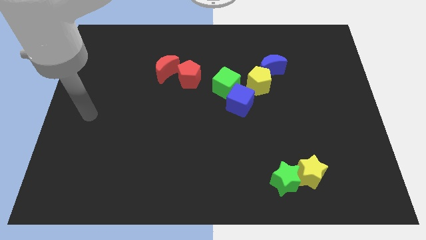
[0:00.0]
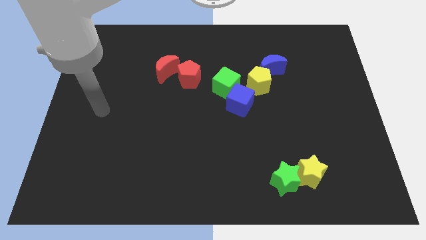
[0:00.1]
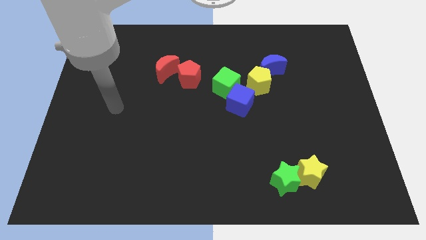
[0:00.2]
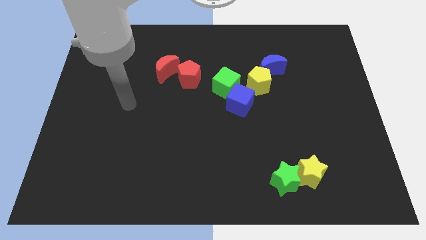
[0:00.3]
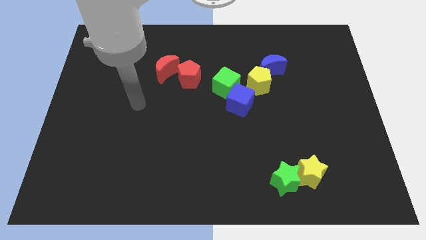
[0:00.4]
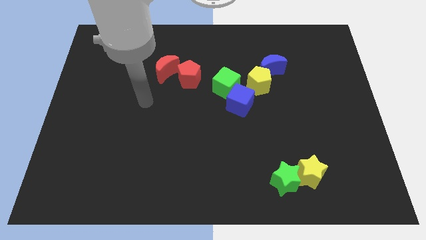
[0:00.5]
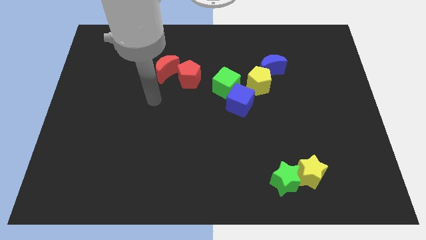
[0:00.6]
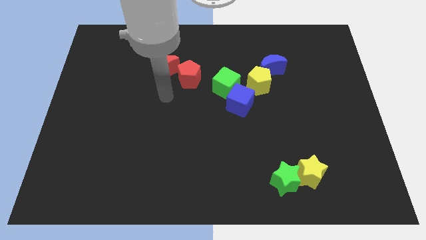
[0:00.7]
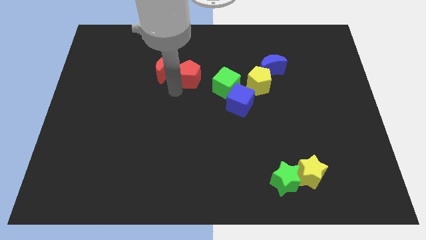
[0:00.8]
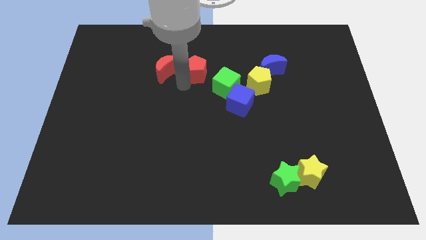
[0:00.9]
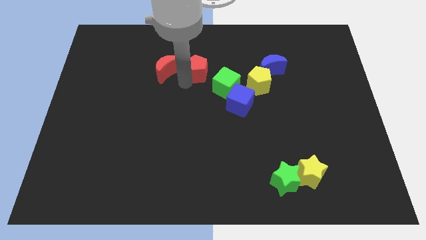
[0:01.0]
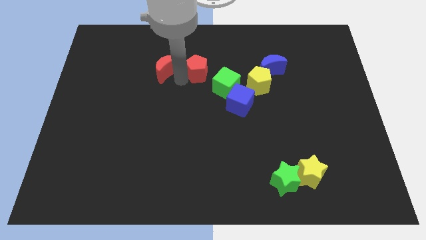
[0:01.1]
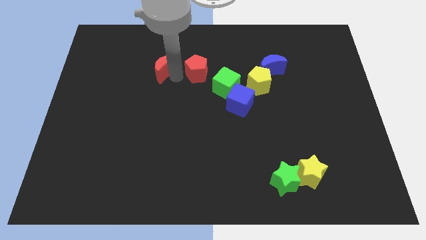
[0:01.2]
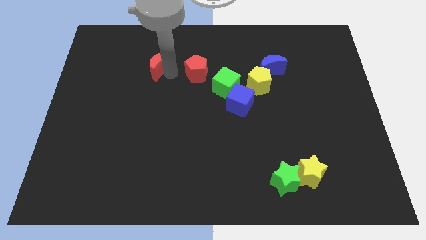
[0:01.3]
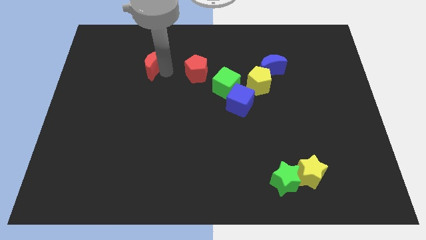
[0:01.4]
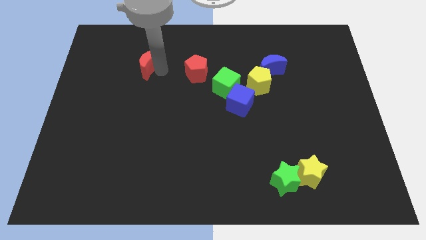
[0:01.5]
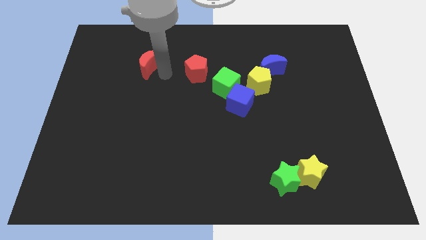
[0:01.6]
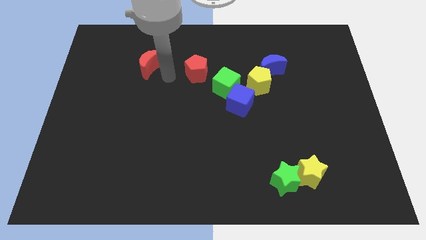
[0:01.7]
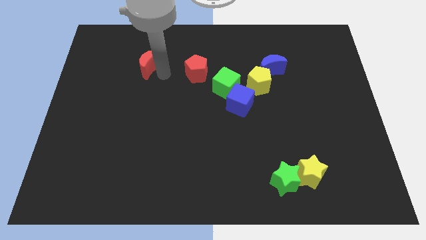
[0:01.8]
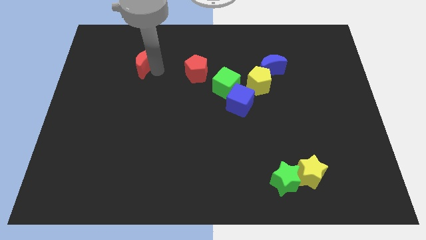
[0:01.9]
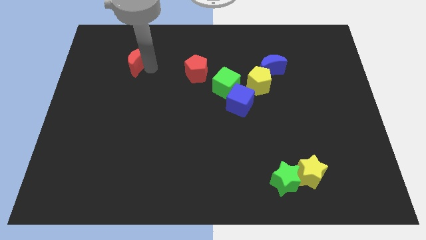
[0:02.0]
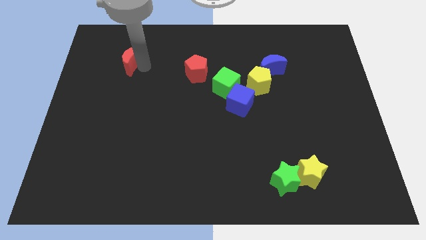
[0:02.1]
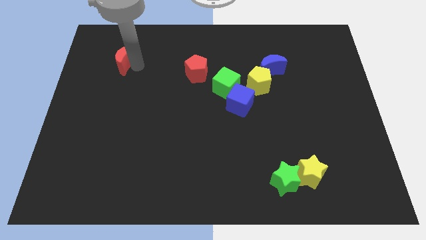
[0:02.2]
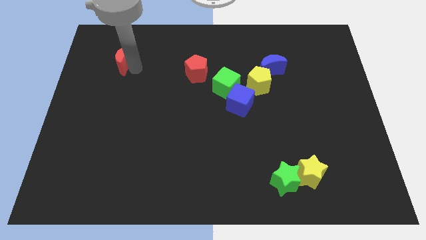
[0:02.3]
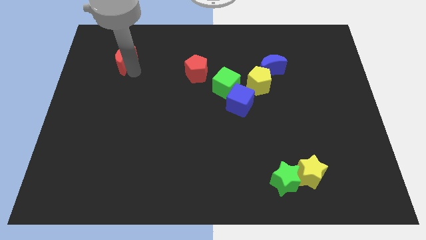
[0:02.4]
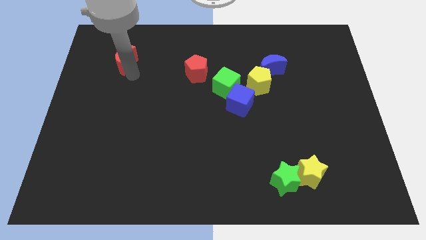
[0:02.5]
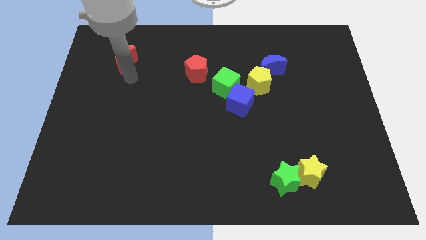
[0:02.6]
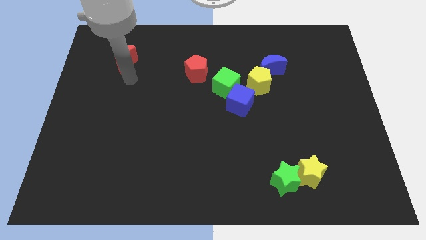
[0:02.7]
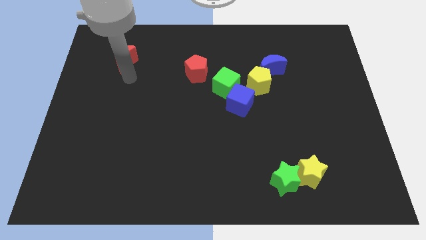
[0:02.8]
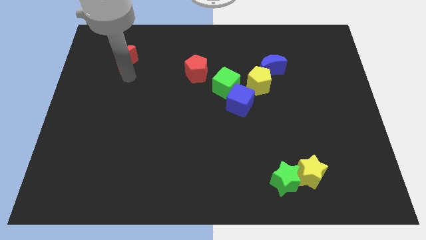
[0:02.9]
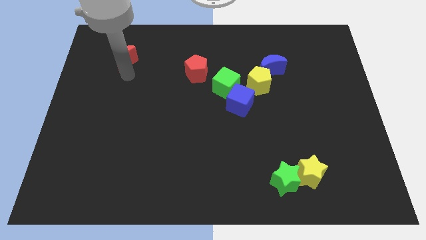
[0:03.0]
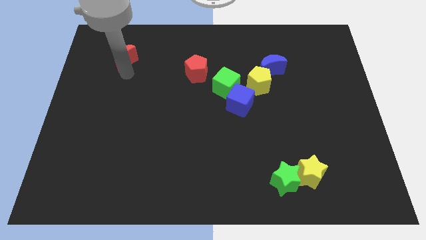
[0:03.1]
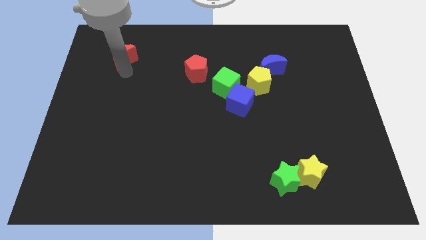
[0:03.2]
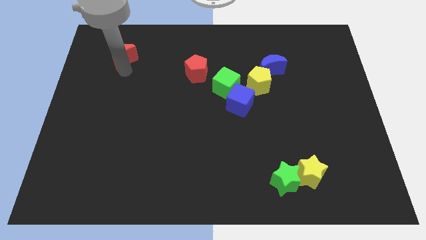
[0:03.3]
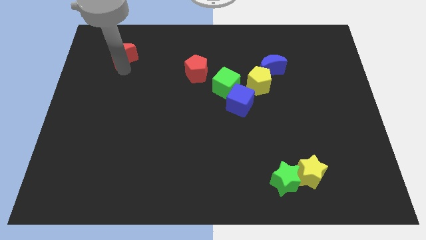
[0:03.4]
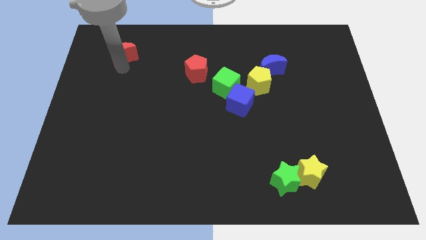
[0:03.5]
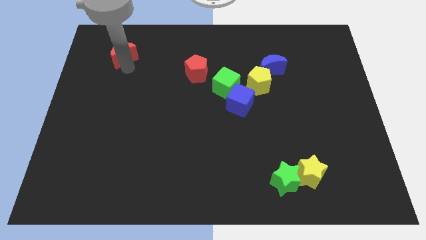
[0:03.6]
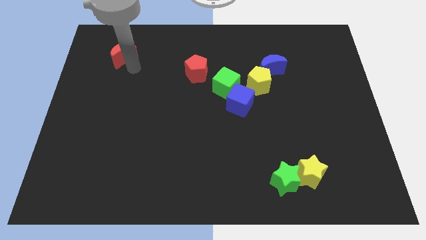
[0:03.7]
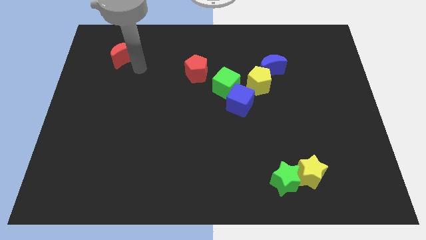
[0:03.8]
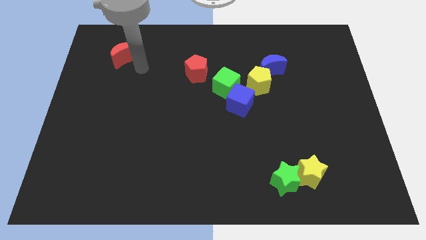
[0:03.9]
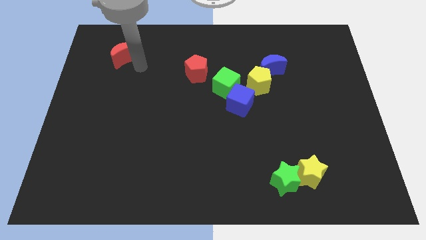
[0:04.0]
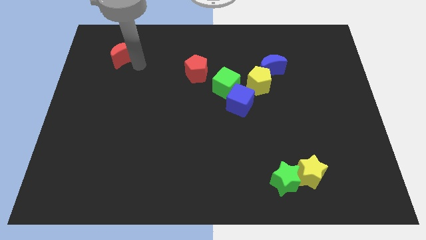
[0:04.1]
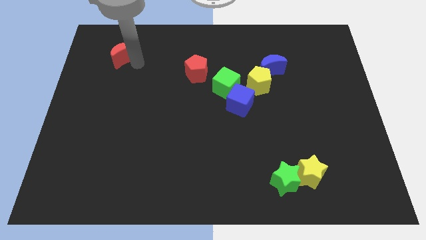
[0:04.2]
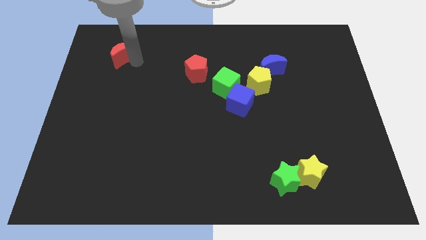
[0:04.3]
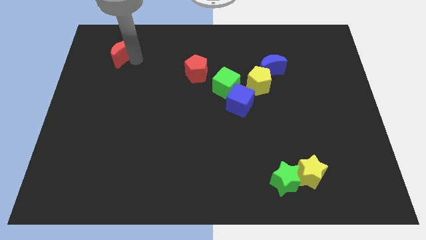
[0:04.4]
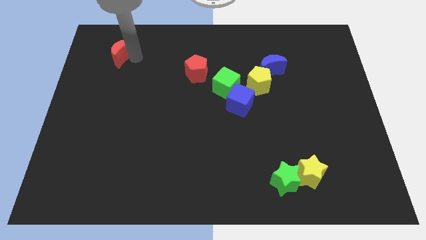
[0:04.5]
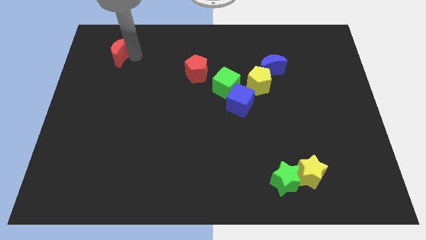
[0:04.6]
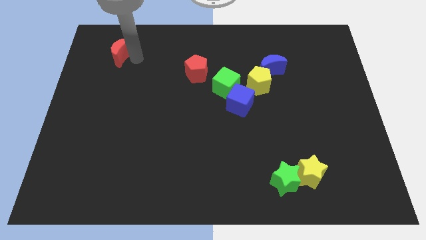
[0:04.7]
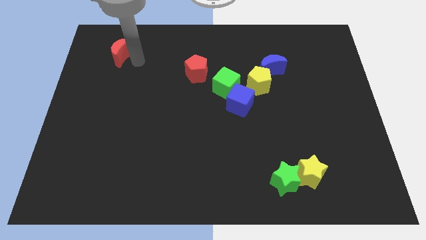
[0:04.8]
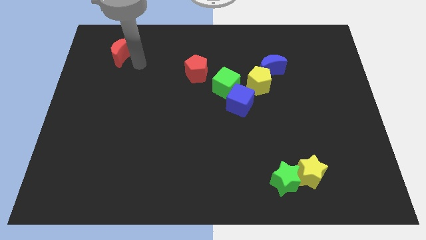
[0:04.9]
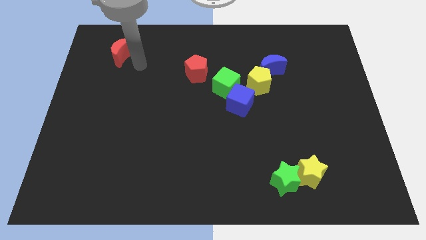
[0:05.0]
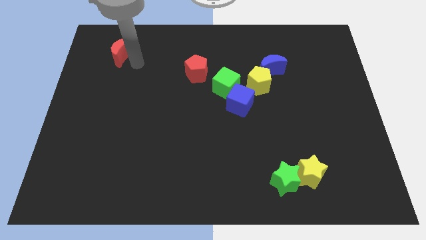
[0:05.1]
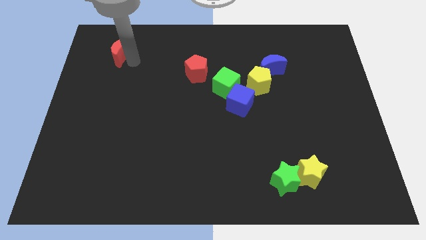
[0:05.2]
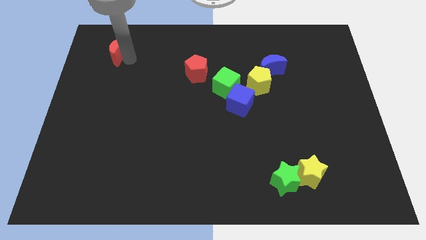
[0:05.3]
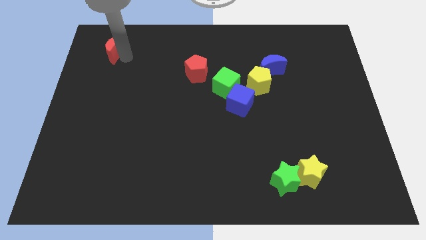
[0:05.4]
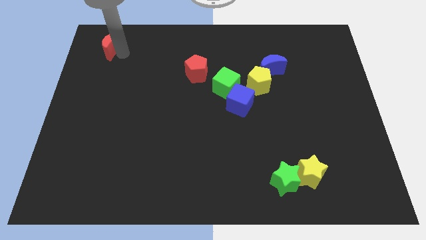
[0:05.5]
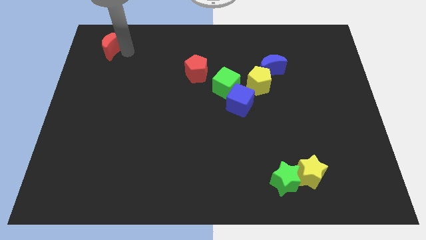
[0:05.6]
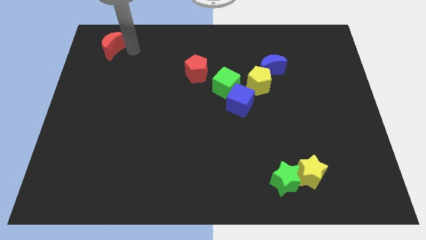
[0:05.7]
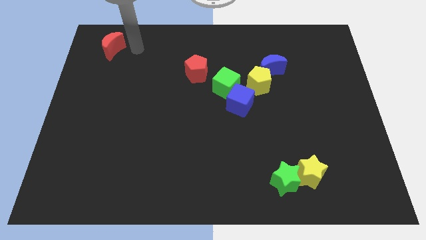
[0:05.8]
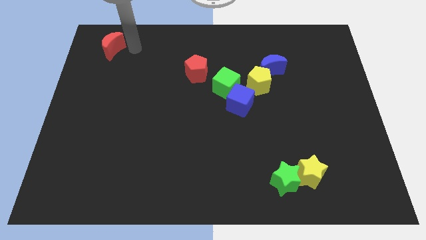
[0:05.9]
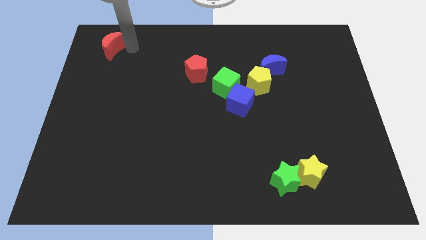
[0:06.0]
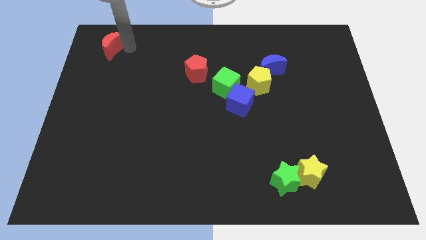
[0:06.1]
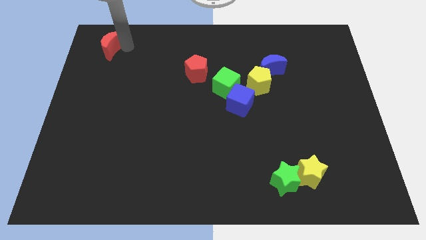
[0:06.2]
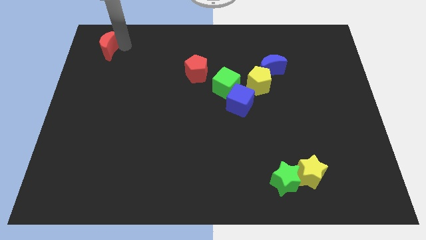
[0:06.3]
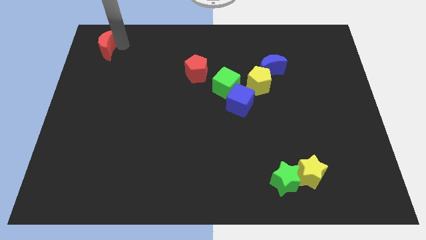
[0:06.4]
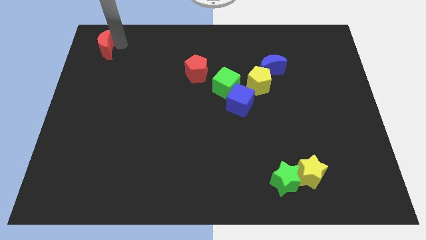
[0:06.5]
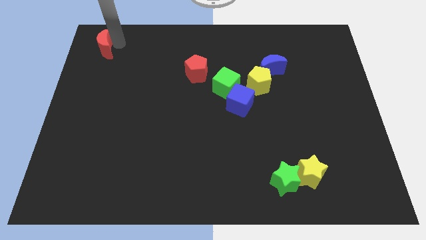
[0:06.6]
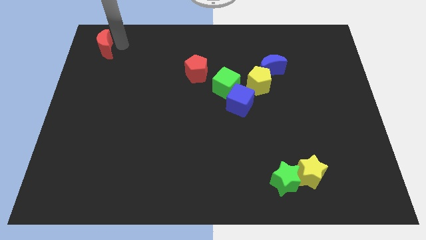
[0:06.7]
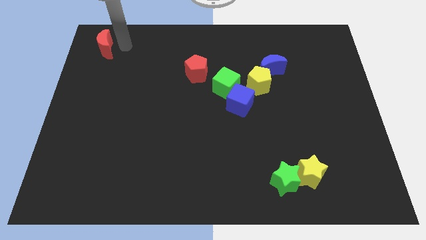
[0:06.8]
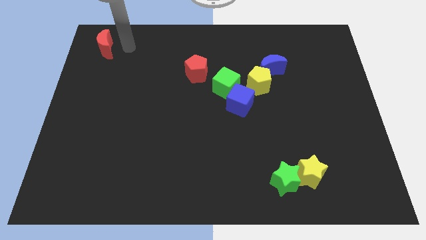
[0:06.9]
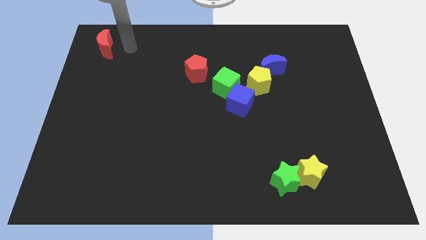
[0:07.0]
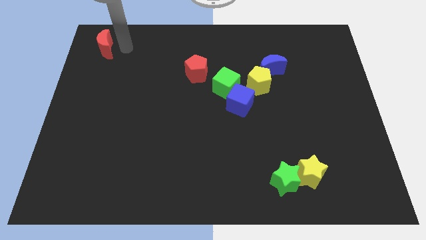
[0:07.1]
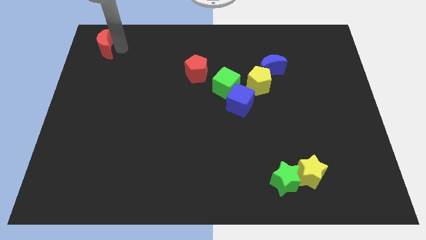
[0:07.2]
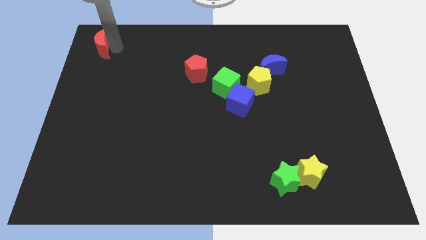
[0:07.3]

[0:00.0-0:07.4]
slide the red moon to the upper left corner
